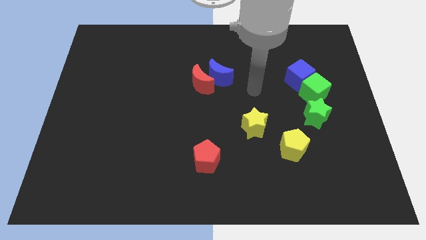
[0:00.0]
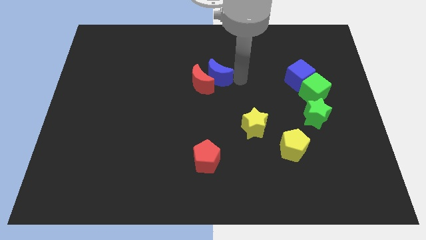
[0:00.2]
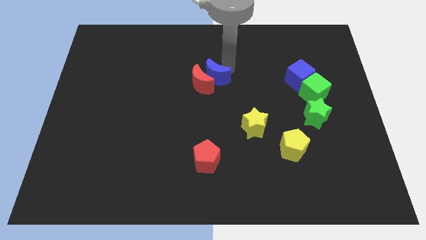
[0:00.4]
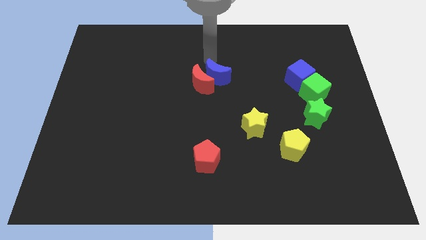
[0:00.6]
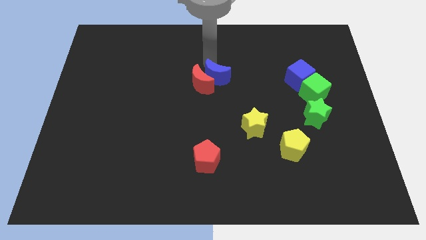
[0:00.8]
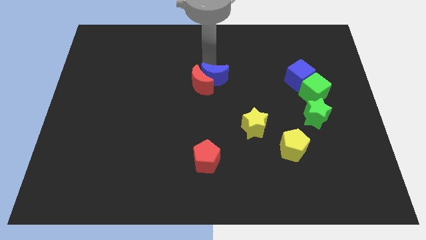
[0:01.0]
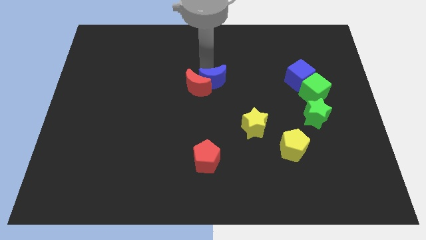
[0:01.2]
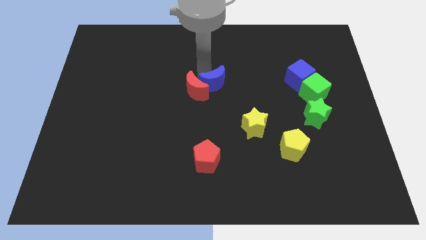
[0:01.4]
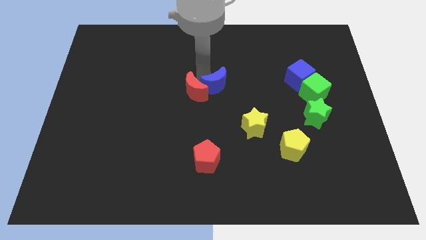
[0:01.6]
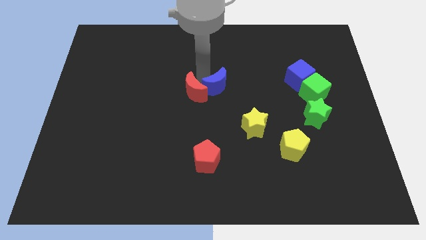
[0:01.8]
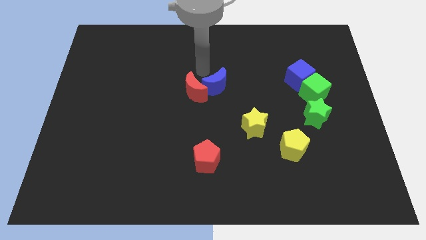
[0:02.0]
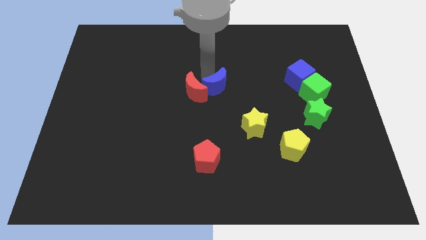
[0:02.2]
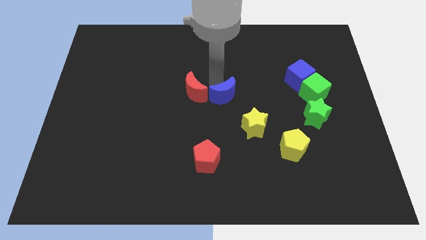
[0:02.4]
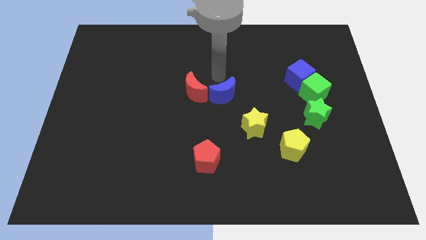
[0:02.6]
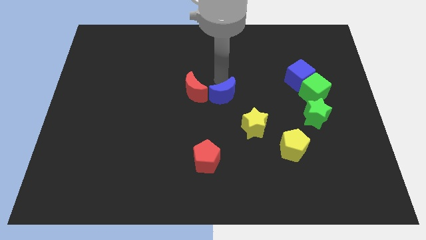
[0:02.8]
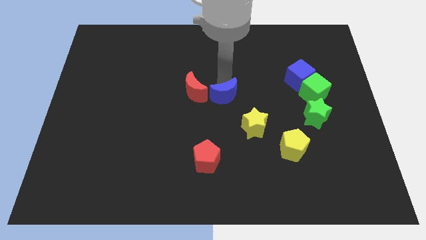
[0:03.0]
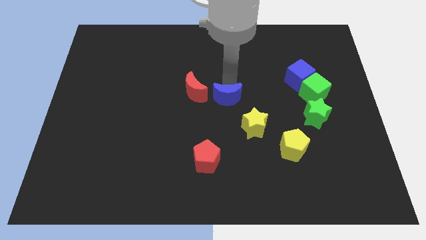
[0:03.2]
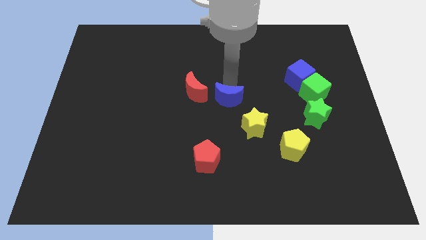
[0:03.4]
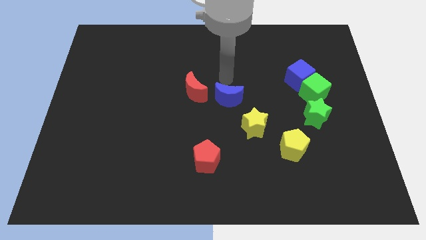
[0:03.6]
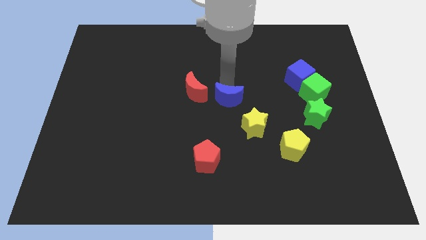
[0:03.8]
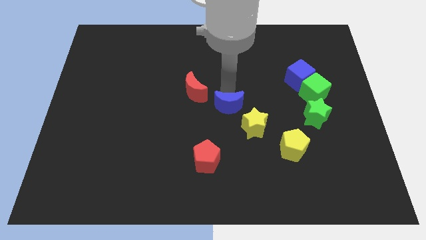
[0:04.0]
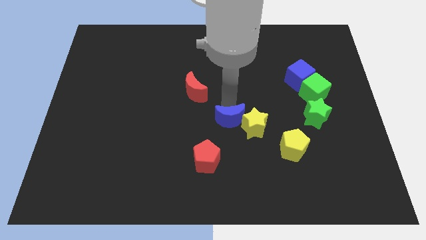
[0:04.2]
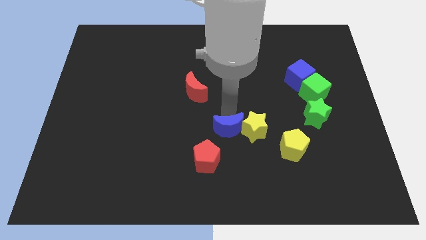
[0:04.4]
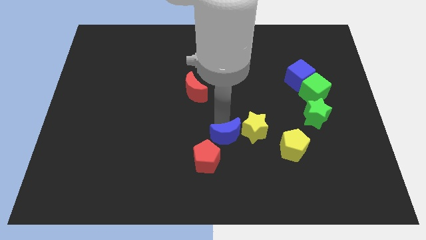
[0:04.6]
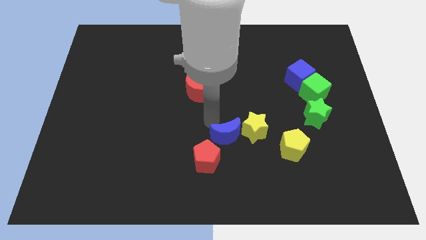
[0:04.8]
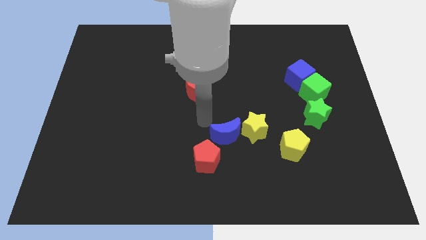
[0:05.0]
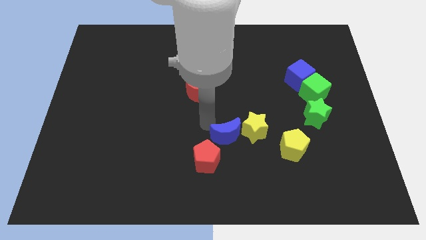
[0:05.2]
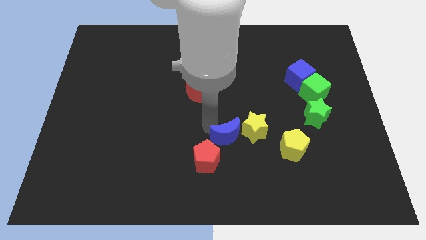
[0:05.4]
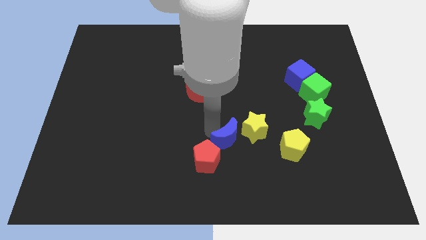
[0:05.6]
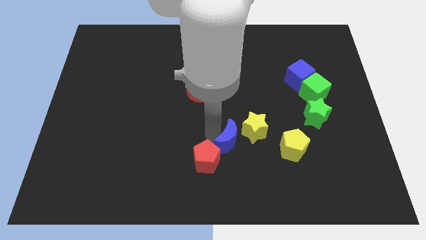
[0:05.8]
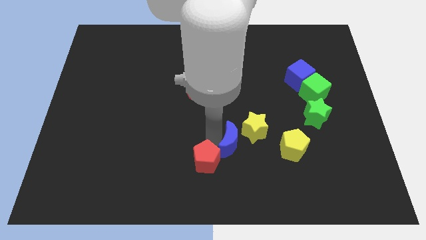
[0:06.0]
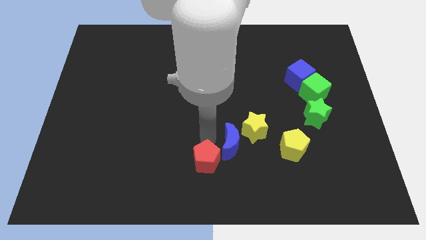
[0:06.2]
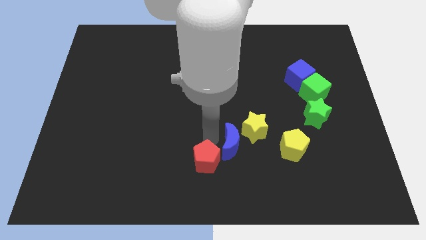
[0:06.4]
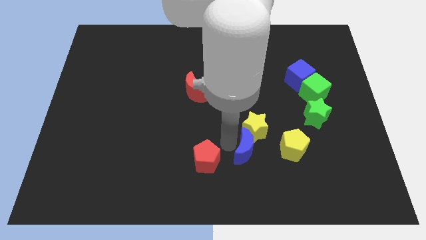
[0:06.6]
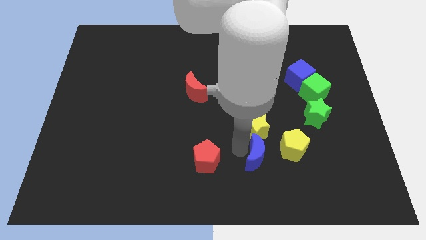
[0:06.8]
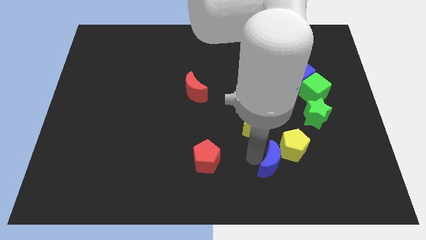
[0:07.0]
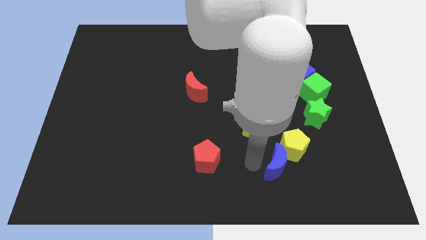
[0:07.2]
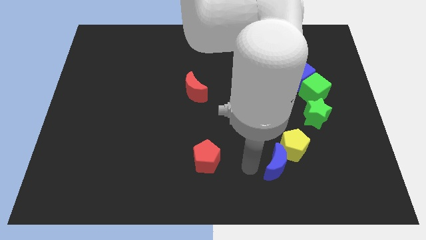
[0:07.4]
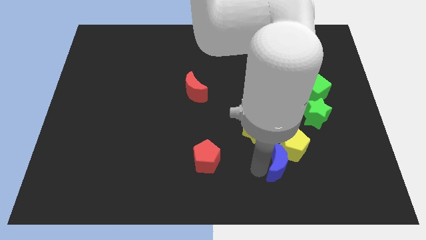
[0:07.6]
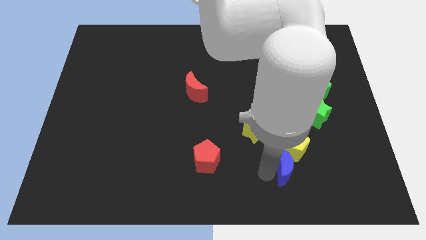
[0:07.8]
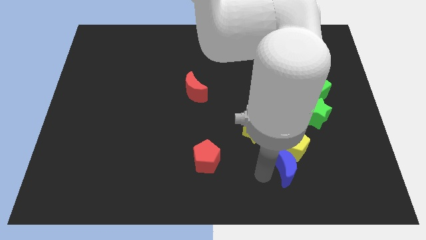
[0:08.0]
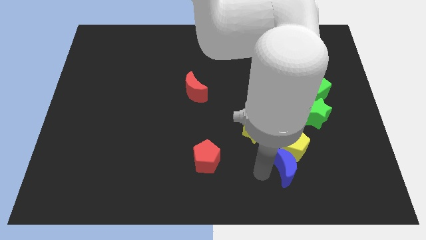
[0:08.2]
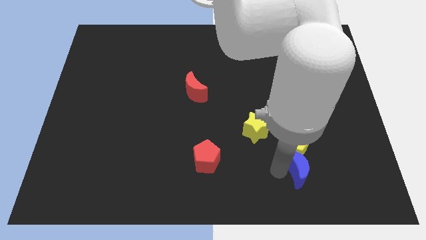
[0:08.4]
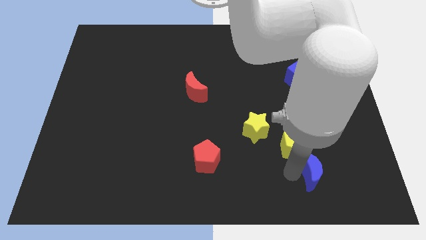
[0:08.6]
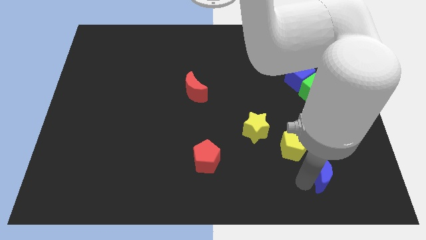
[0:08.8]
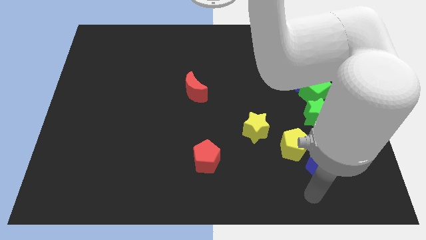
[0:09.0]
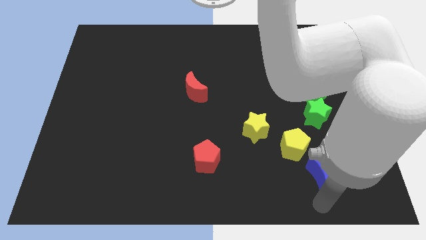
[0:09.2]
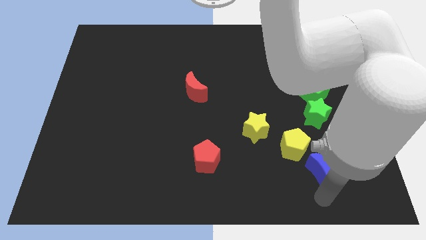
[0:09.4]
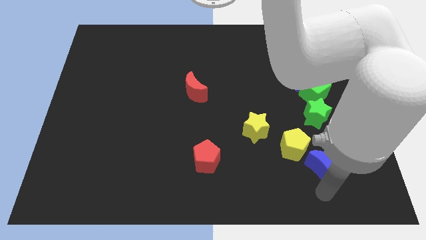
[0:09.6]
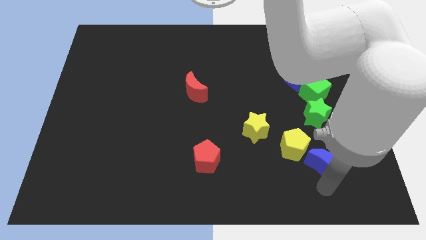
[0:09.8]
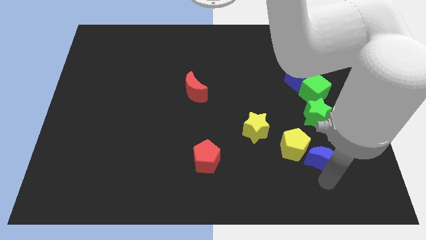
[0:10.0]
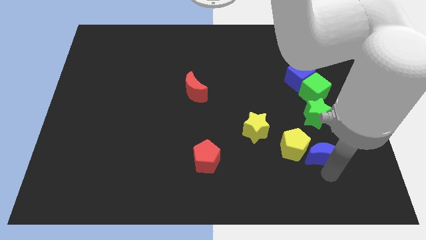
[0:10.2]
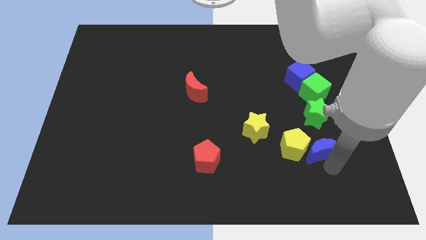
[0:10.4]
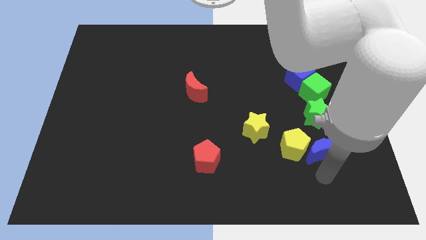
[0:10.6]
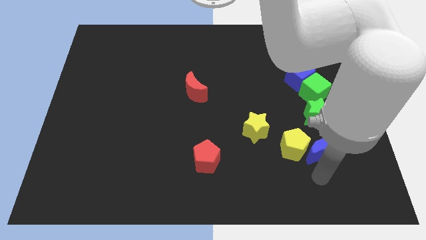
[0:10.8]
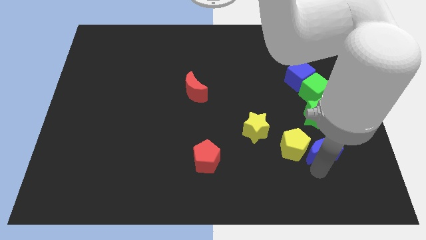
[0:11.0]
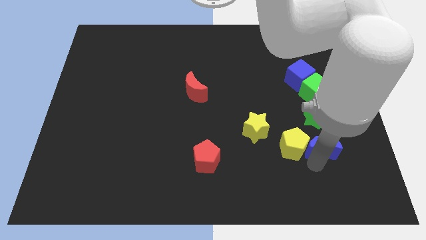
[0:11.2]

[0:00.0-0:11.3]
slide the blue moon below the green cube

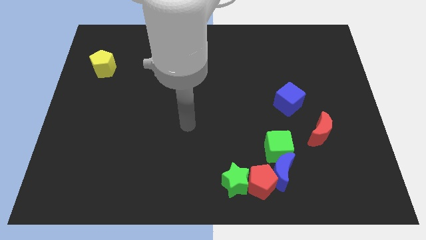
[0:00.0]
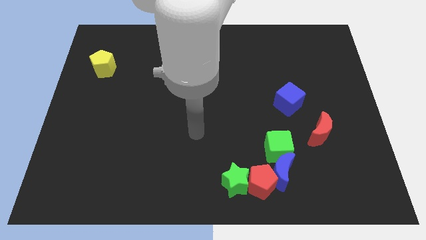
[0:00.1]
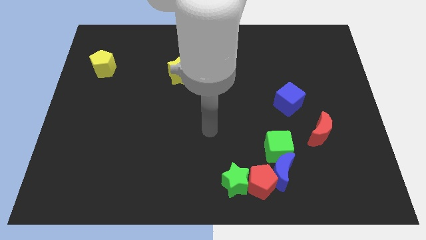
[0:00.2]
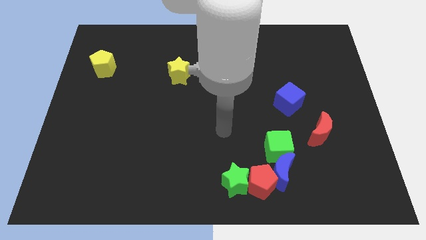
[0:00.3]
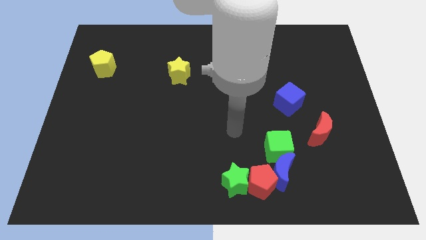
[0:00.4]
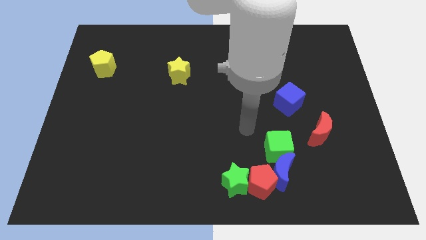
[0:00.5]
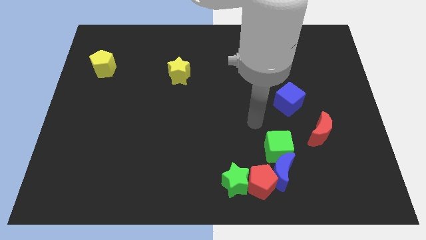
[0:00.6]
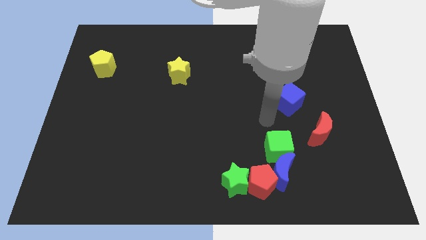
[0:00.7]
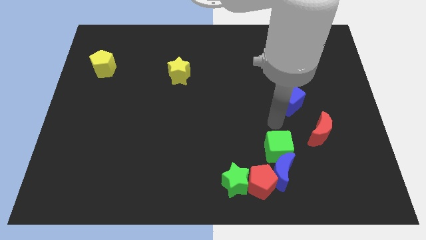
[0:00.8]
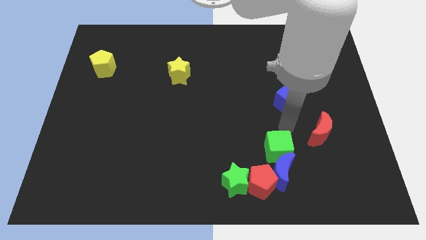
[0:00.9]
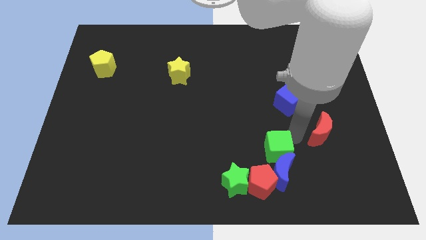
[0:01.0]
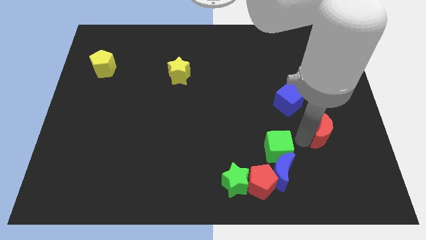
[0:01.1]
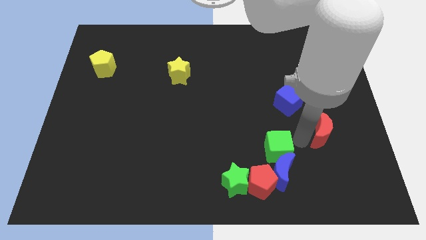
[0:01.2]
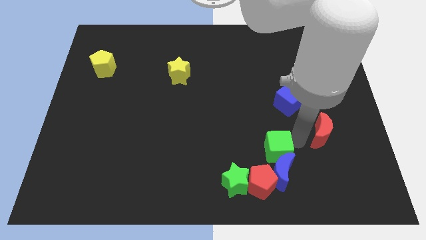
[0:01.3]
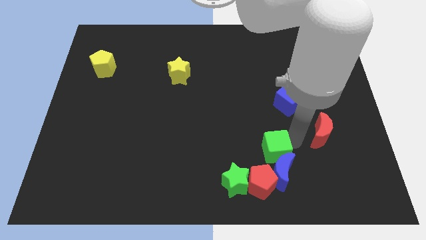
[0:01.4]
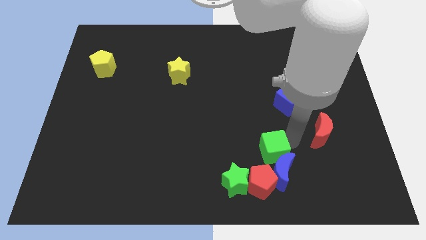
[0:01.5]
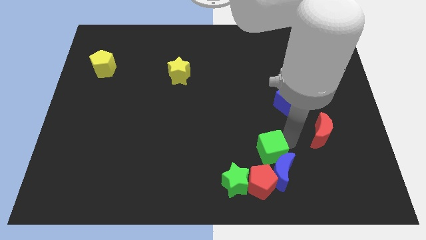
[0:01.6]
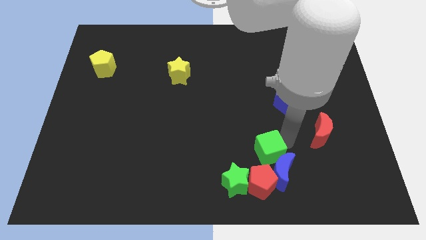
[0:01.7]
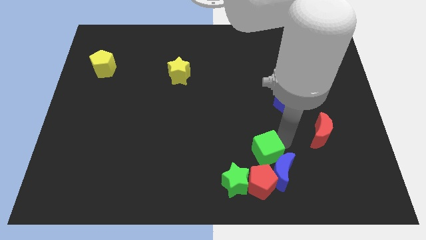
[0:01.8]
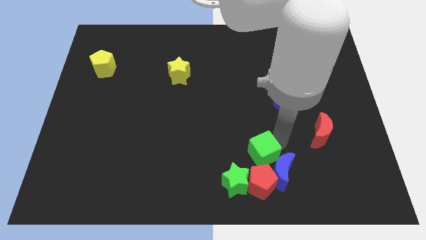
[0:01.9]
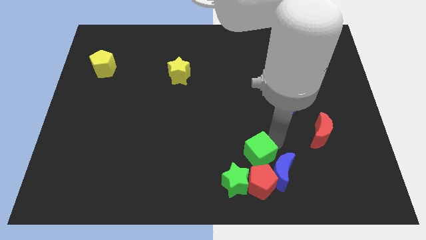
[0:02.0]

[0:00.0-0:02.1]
push the green cube just left of the blue moon
